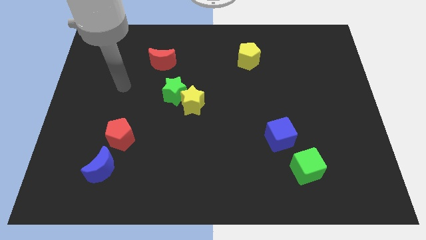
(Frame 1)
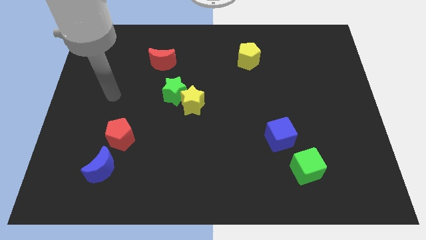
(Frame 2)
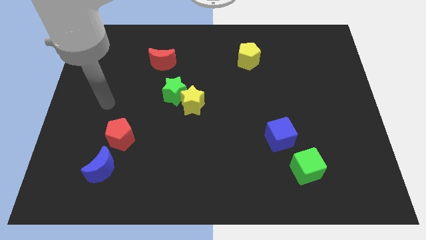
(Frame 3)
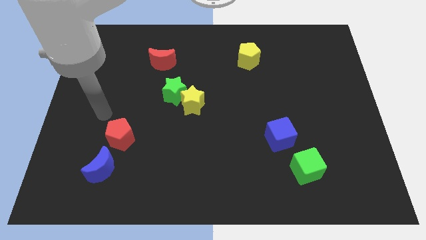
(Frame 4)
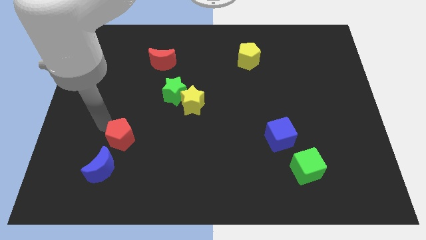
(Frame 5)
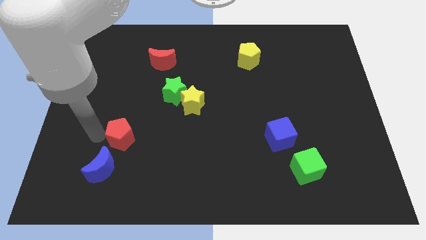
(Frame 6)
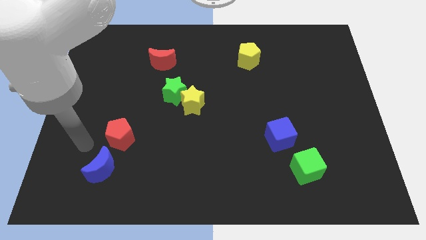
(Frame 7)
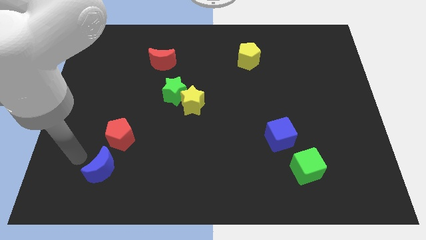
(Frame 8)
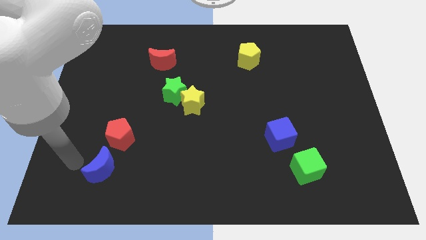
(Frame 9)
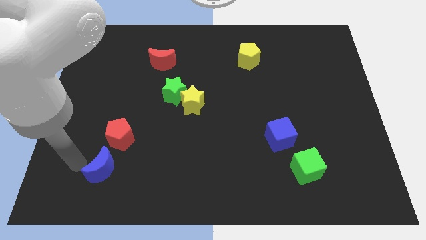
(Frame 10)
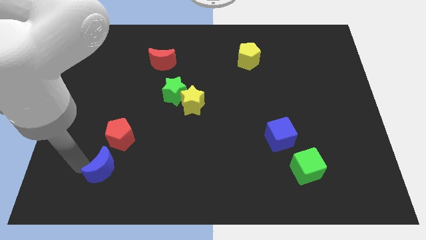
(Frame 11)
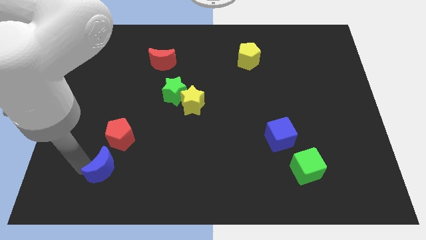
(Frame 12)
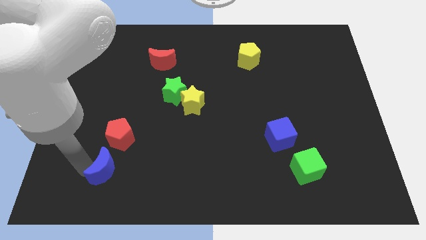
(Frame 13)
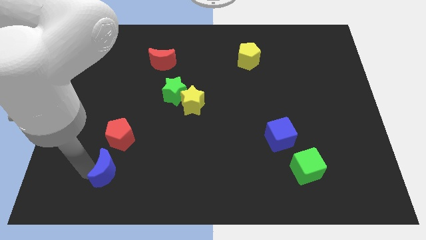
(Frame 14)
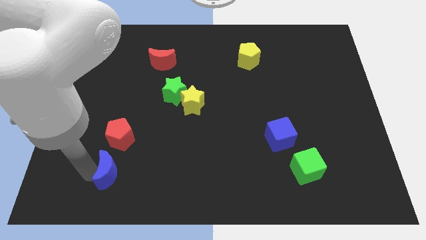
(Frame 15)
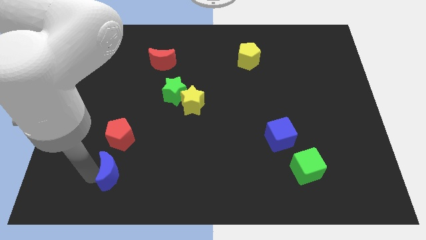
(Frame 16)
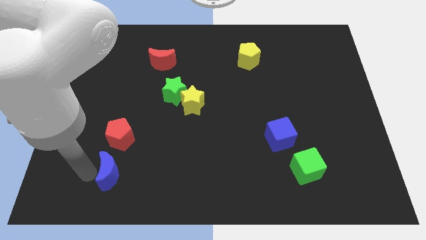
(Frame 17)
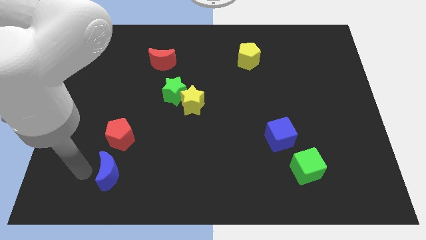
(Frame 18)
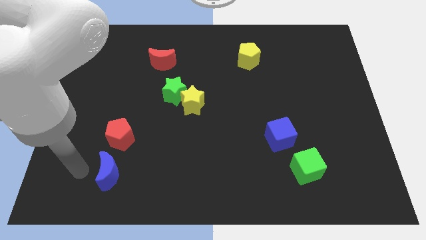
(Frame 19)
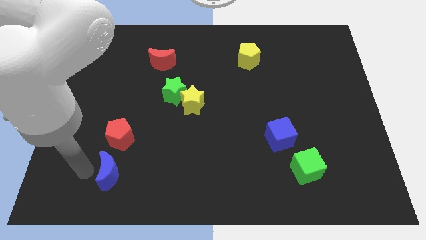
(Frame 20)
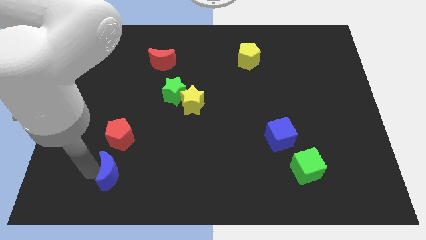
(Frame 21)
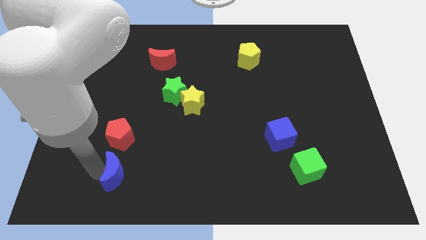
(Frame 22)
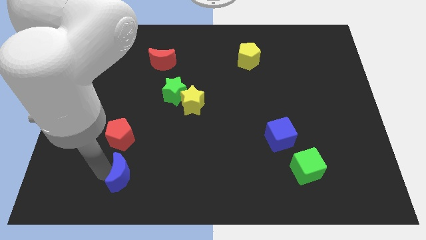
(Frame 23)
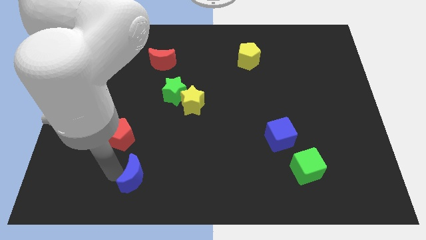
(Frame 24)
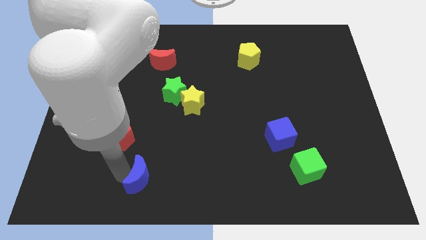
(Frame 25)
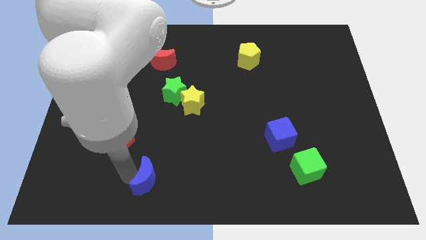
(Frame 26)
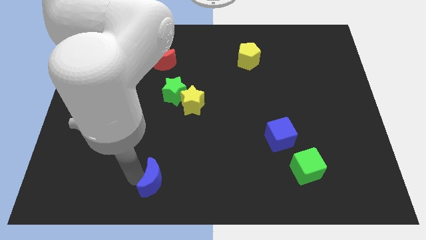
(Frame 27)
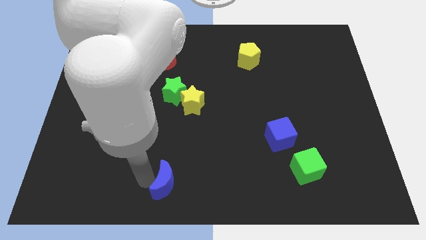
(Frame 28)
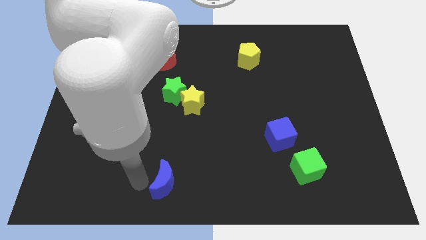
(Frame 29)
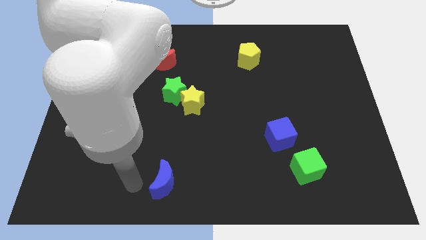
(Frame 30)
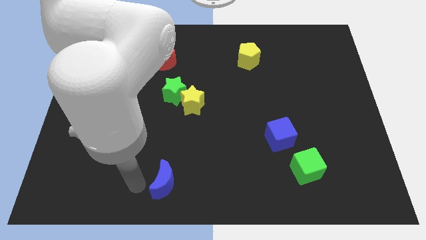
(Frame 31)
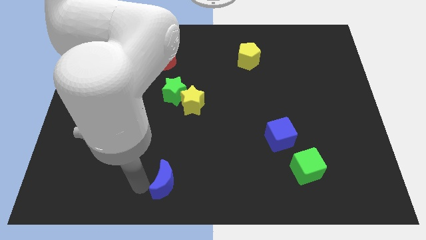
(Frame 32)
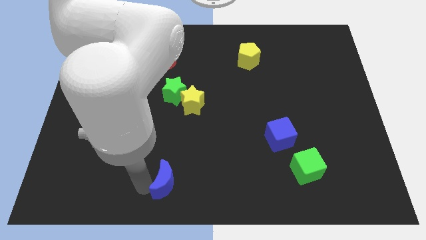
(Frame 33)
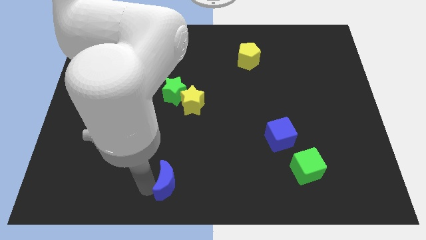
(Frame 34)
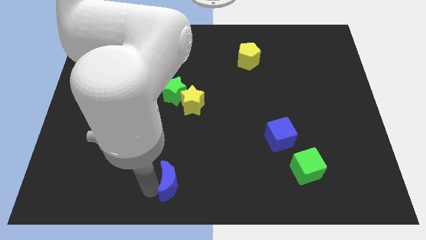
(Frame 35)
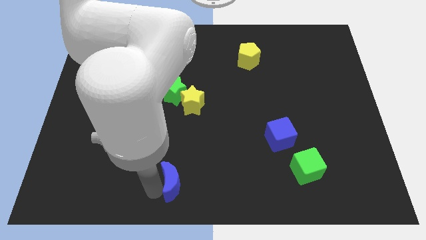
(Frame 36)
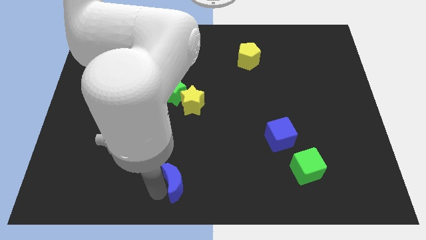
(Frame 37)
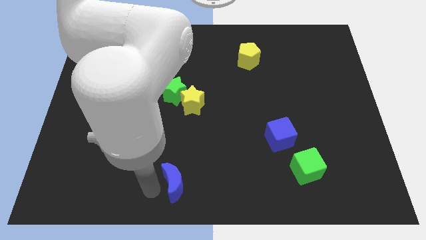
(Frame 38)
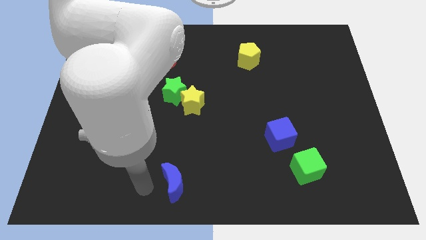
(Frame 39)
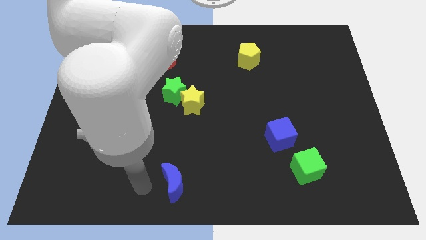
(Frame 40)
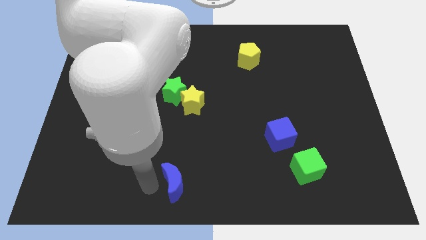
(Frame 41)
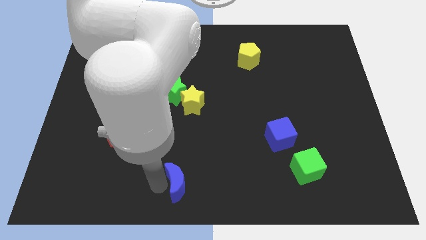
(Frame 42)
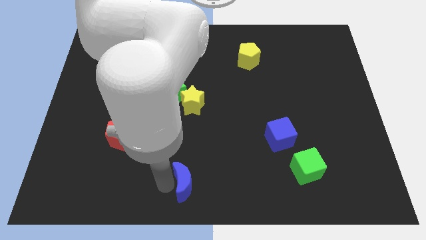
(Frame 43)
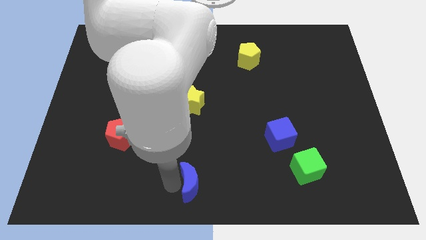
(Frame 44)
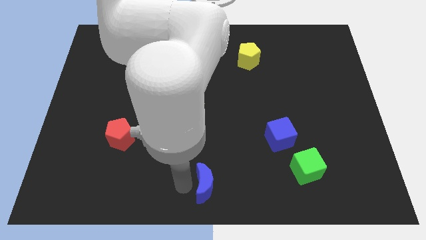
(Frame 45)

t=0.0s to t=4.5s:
move the blue moon to the right

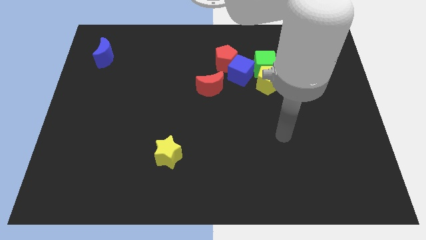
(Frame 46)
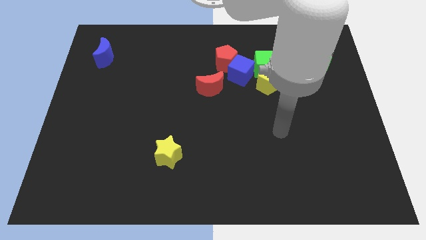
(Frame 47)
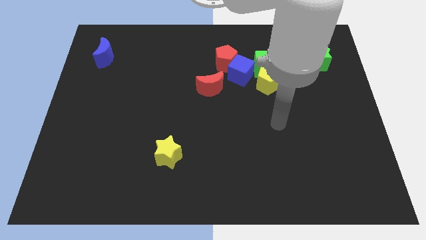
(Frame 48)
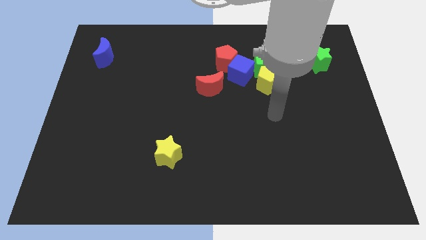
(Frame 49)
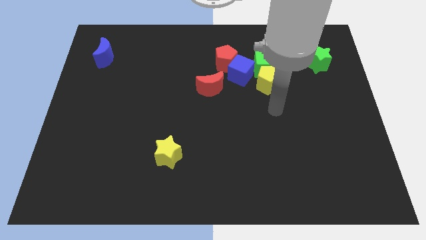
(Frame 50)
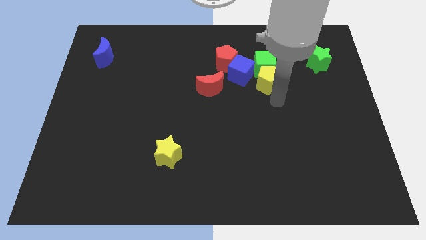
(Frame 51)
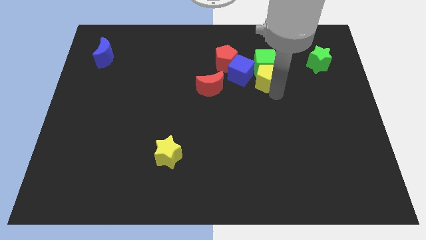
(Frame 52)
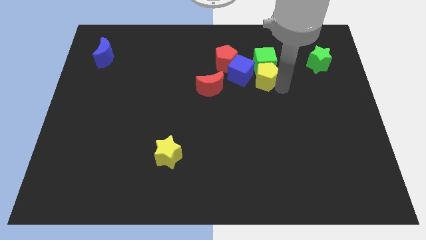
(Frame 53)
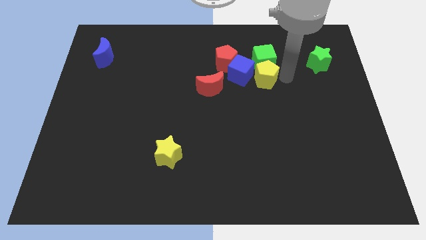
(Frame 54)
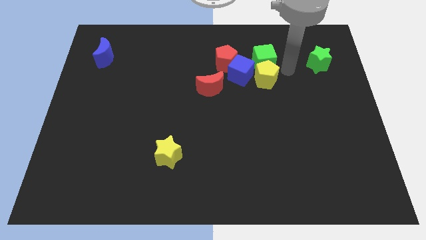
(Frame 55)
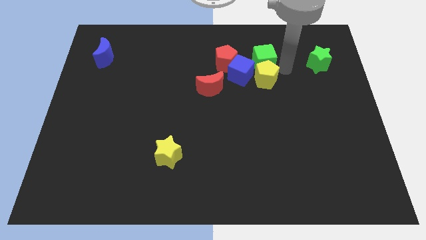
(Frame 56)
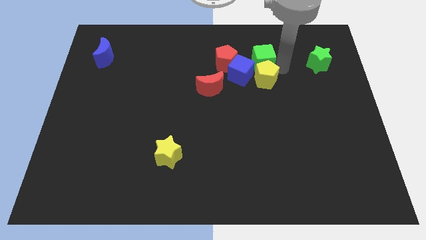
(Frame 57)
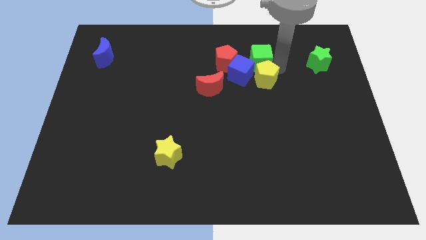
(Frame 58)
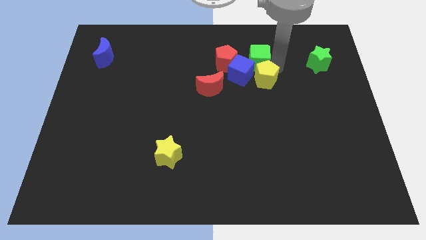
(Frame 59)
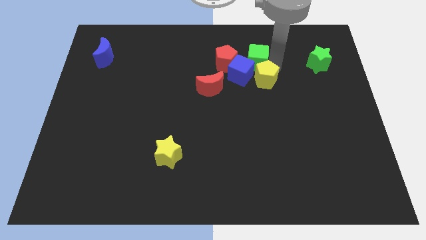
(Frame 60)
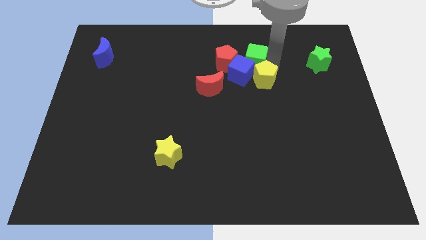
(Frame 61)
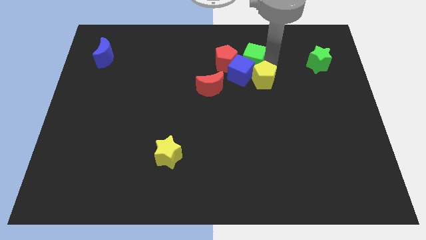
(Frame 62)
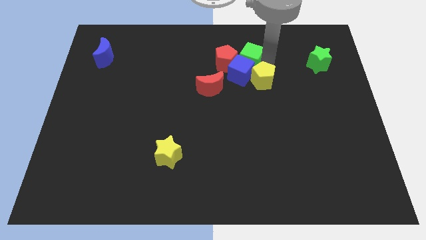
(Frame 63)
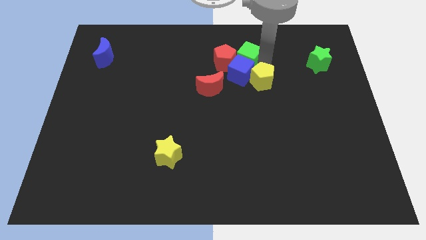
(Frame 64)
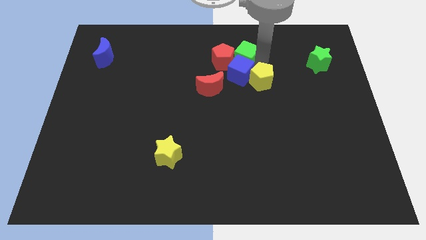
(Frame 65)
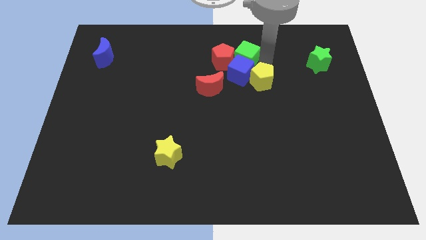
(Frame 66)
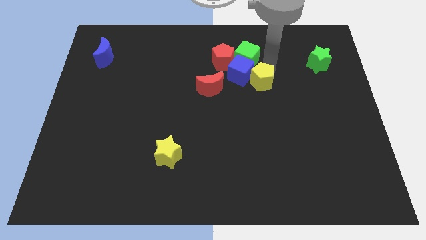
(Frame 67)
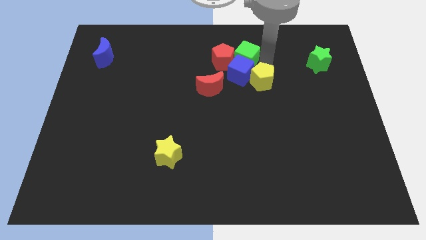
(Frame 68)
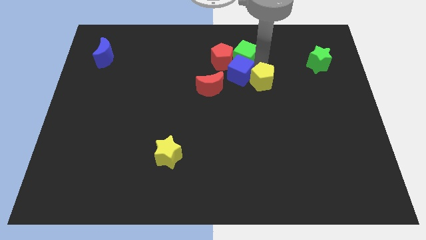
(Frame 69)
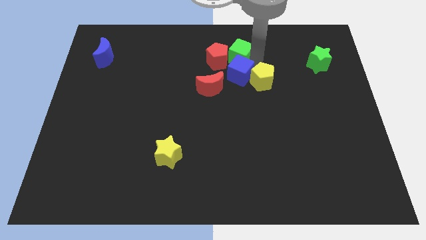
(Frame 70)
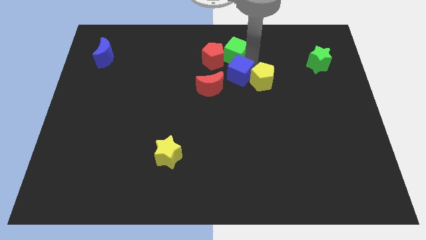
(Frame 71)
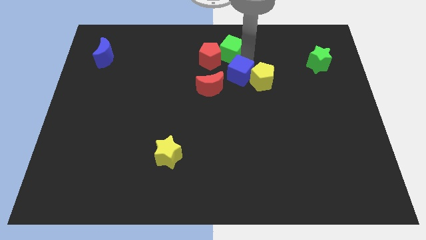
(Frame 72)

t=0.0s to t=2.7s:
move the green cube a little bit to the left

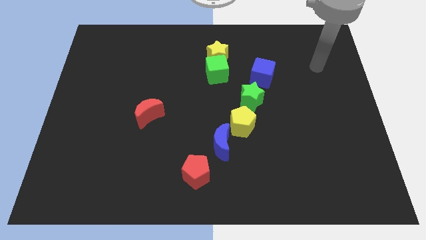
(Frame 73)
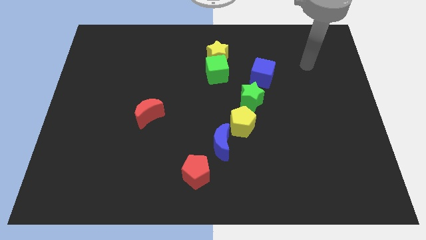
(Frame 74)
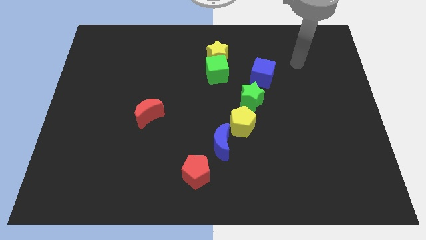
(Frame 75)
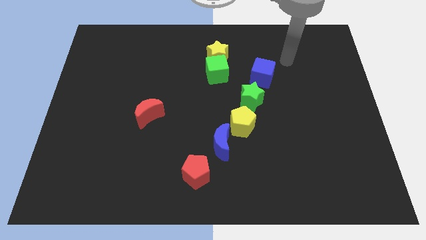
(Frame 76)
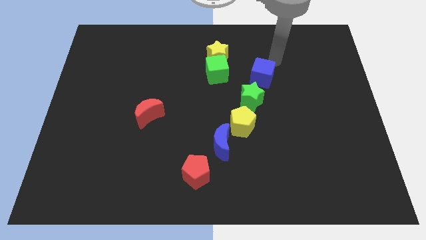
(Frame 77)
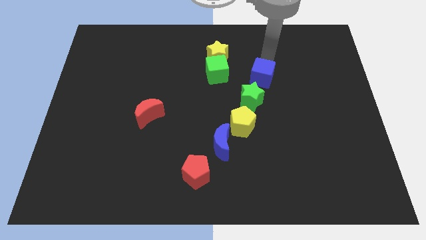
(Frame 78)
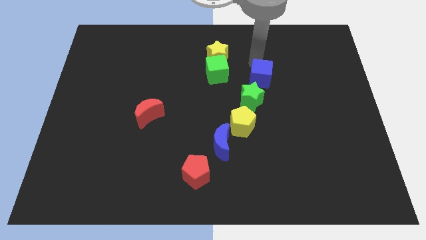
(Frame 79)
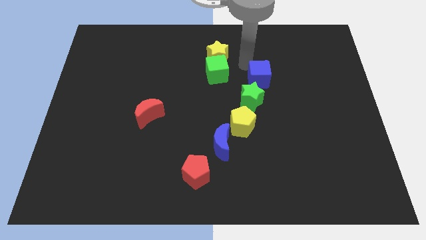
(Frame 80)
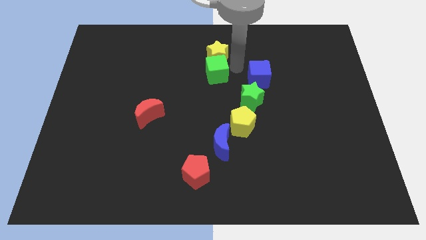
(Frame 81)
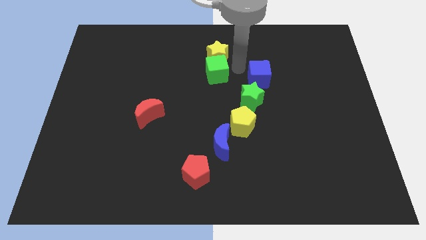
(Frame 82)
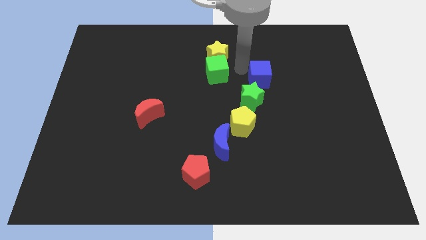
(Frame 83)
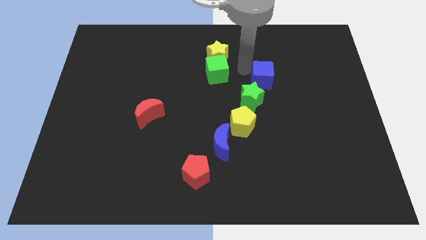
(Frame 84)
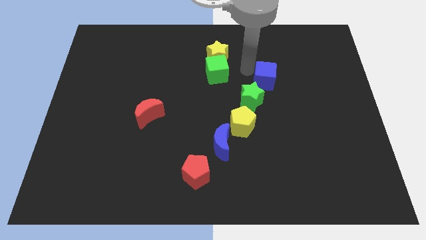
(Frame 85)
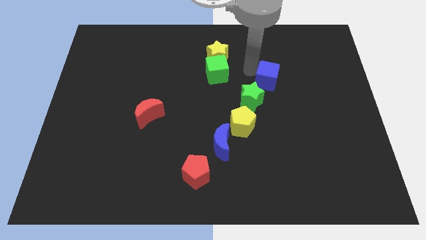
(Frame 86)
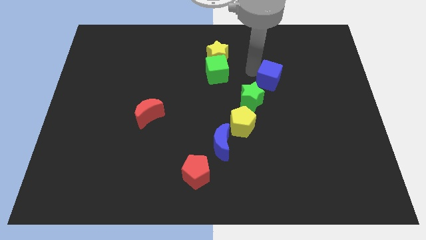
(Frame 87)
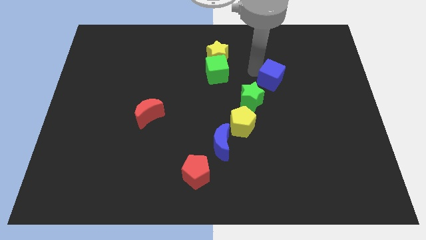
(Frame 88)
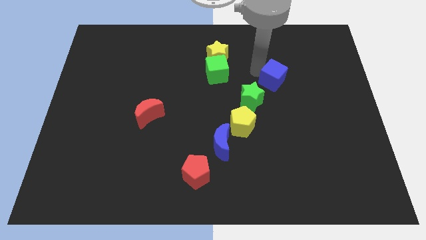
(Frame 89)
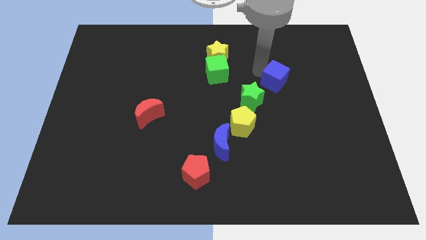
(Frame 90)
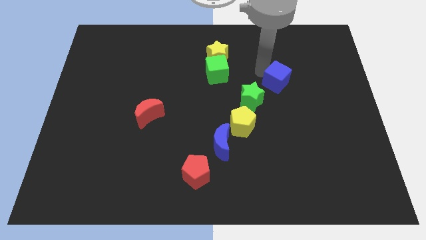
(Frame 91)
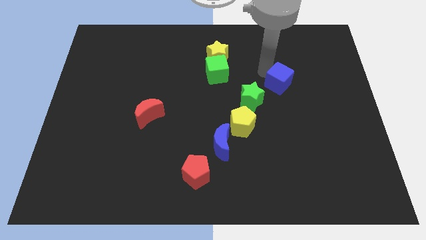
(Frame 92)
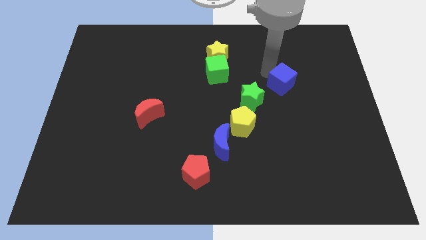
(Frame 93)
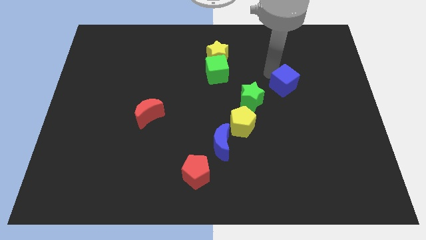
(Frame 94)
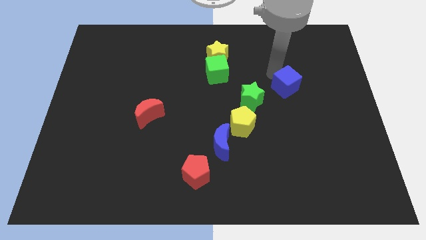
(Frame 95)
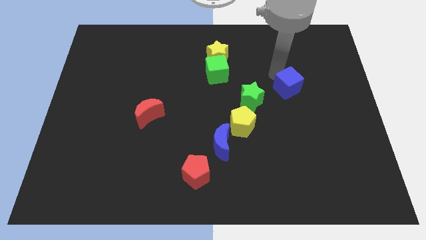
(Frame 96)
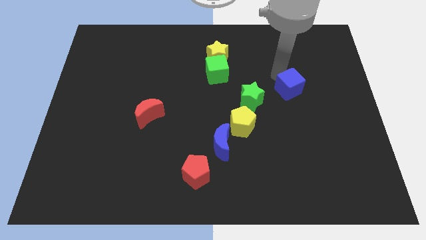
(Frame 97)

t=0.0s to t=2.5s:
slightly move the blue cube downwards and to the right diagonally
